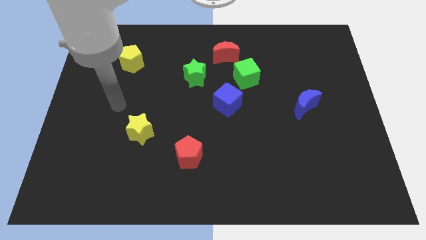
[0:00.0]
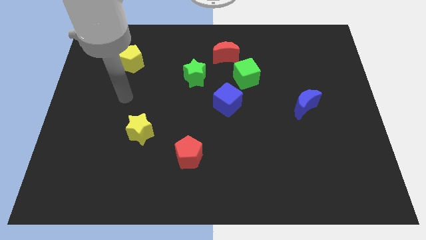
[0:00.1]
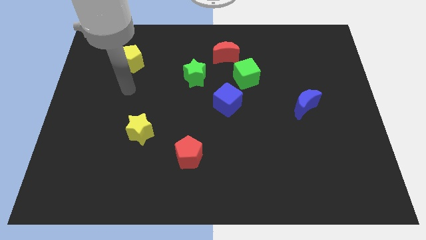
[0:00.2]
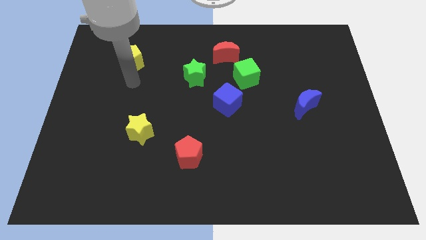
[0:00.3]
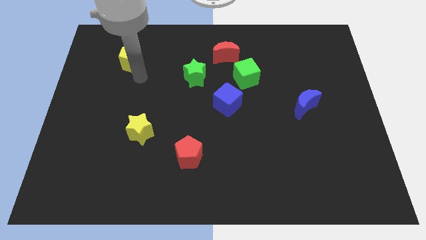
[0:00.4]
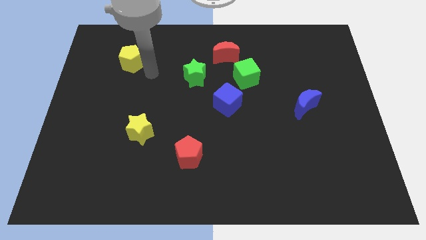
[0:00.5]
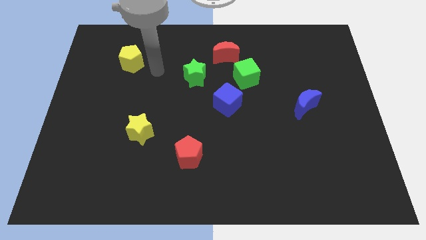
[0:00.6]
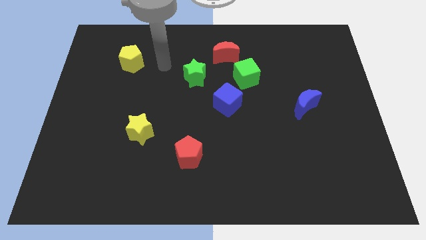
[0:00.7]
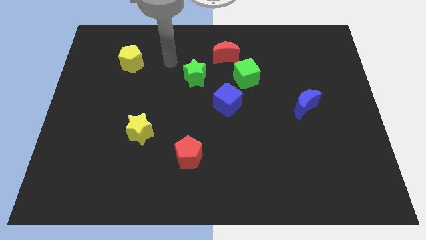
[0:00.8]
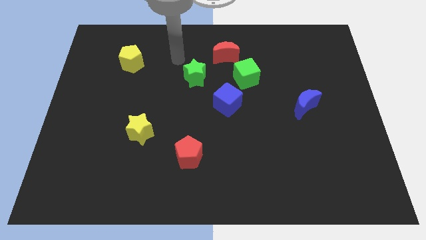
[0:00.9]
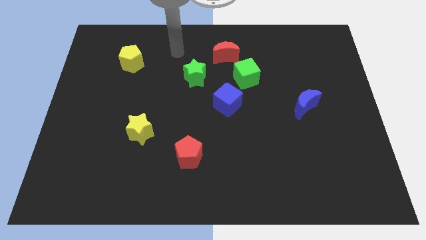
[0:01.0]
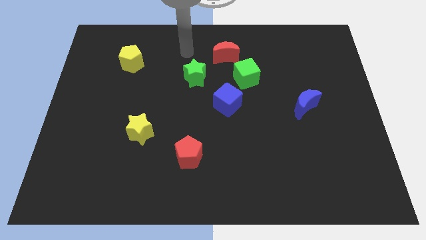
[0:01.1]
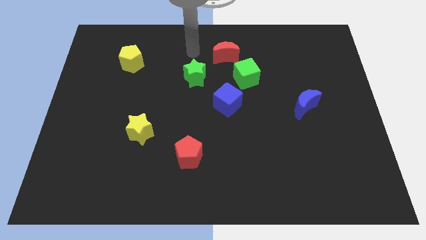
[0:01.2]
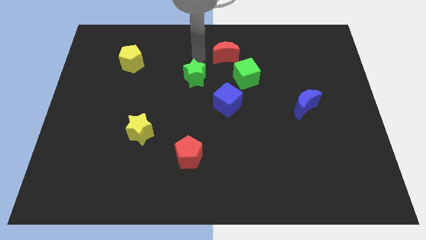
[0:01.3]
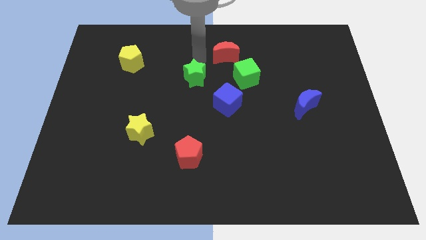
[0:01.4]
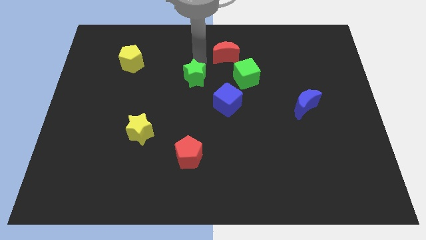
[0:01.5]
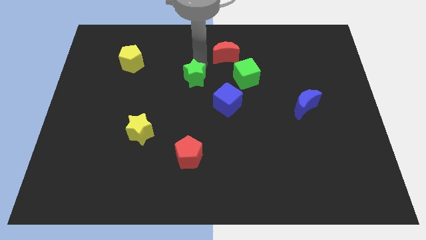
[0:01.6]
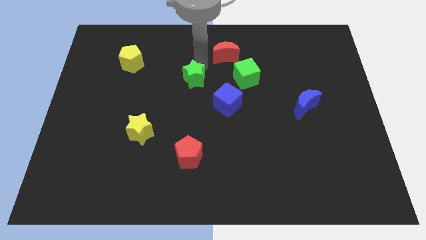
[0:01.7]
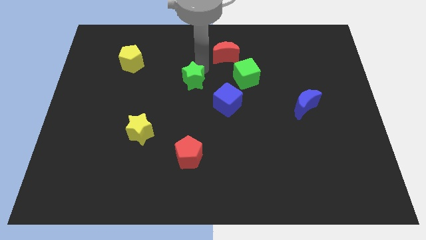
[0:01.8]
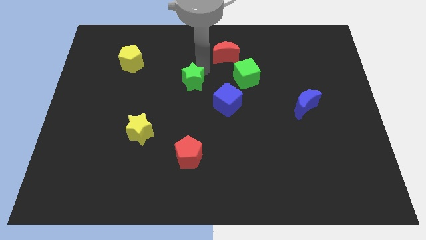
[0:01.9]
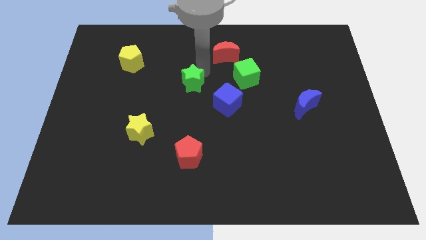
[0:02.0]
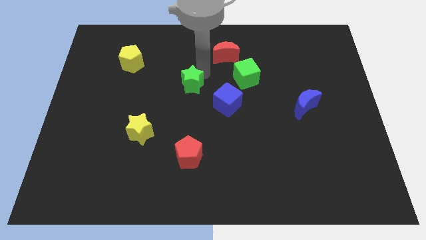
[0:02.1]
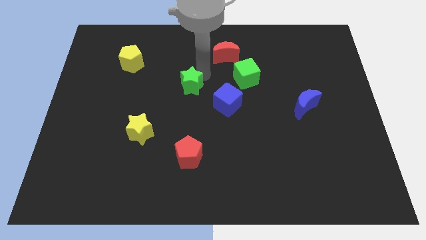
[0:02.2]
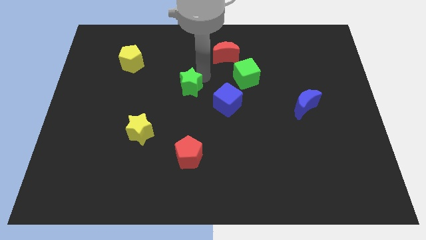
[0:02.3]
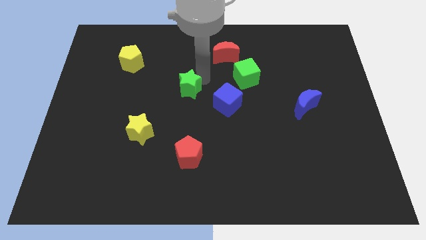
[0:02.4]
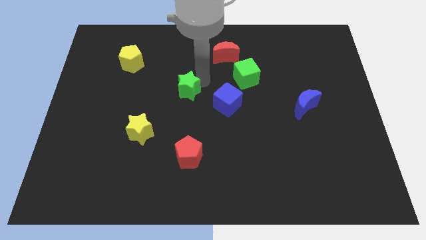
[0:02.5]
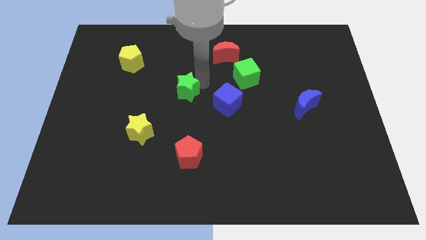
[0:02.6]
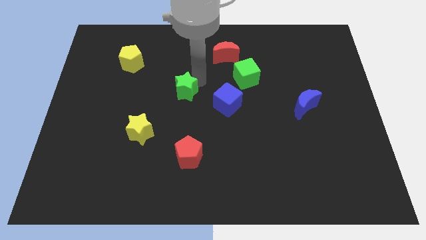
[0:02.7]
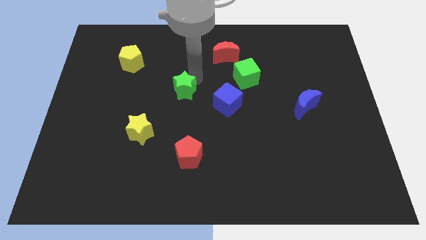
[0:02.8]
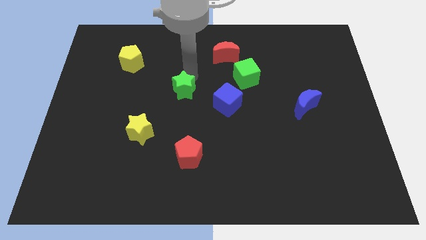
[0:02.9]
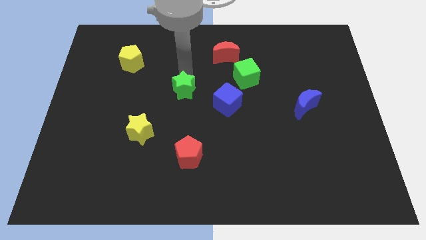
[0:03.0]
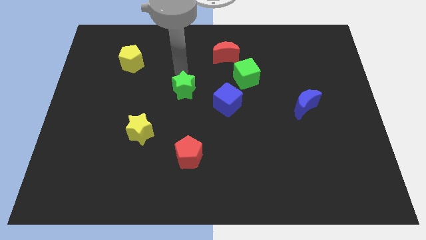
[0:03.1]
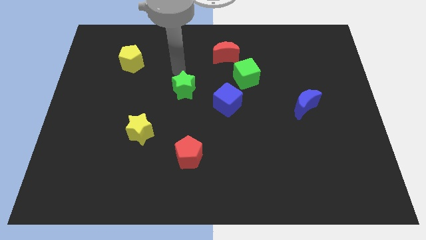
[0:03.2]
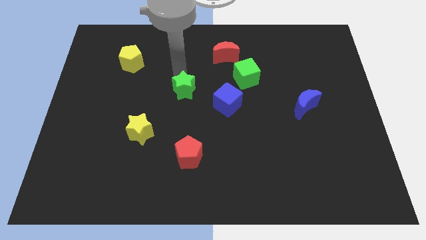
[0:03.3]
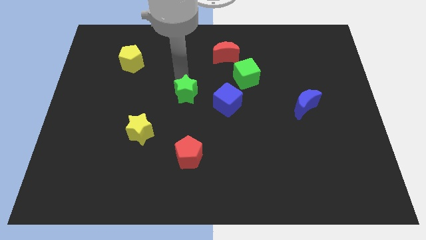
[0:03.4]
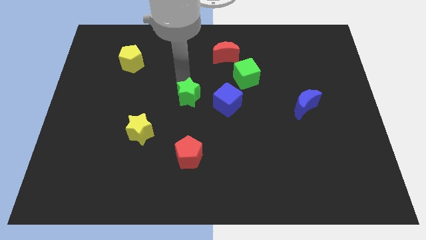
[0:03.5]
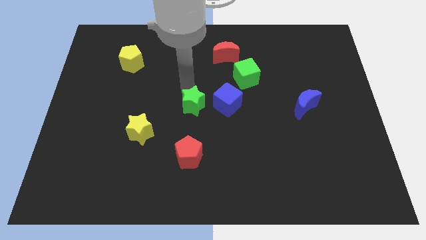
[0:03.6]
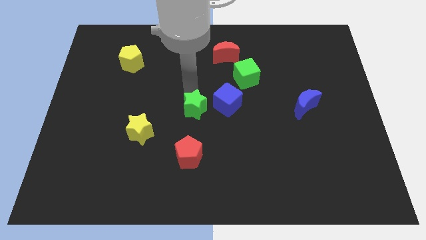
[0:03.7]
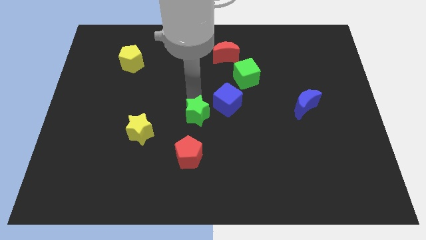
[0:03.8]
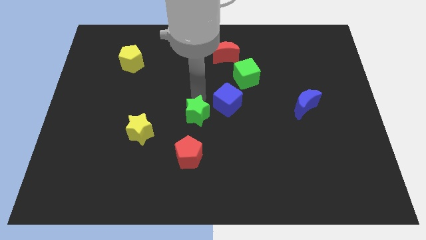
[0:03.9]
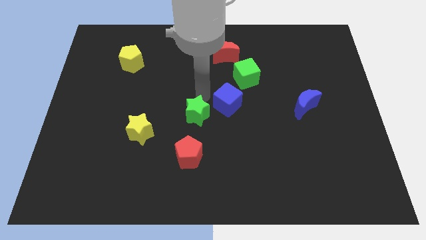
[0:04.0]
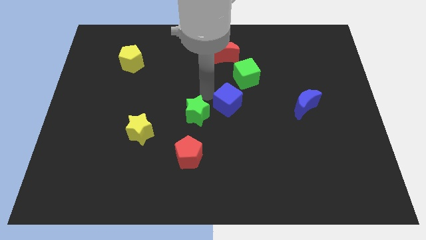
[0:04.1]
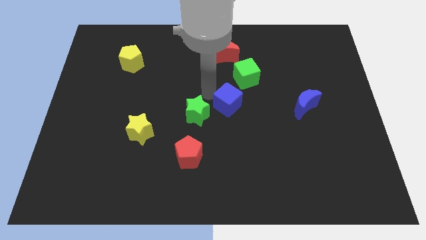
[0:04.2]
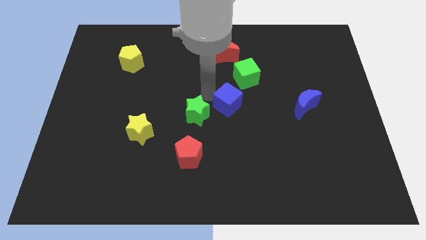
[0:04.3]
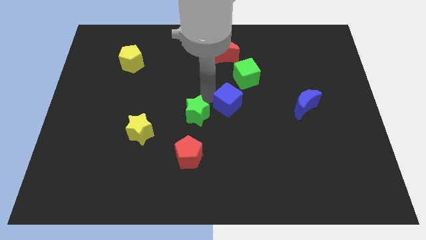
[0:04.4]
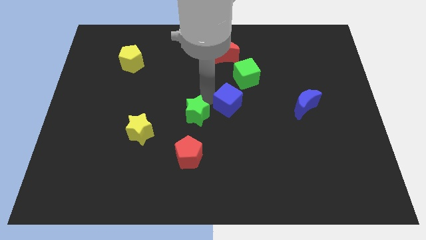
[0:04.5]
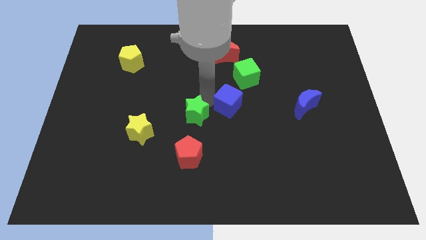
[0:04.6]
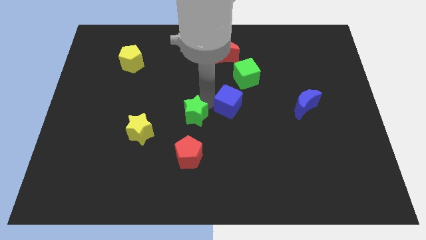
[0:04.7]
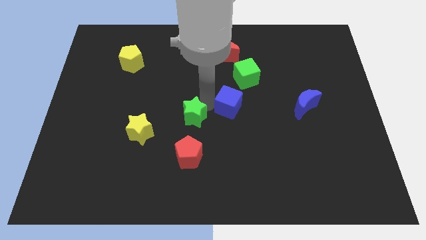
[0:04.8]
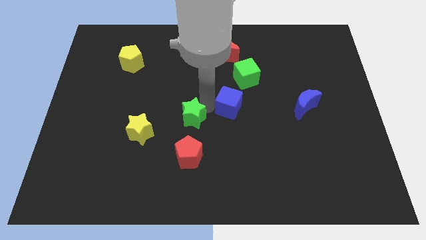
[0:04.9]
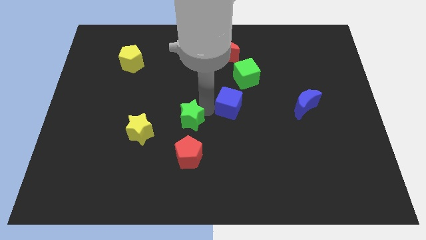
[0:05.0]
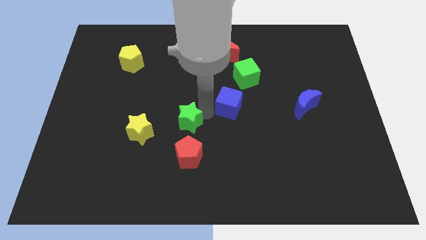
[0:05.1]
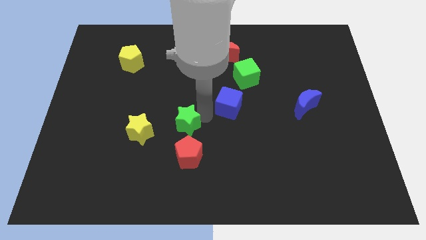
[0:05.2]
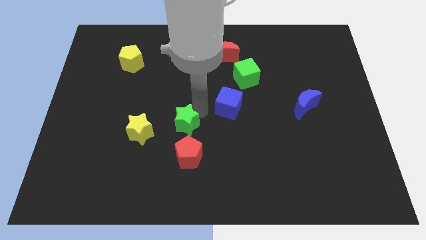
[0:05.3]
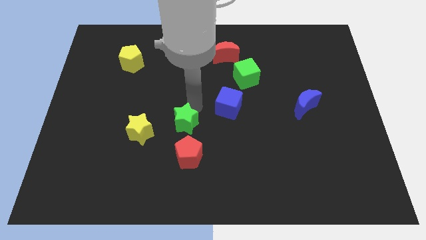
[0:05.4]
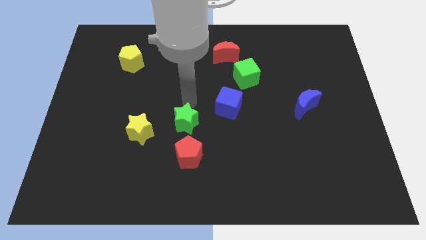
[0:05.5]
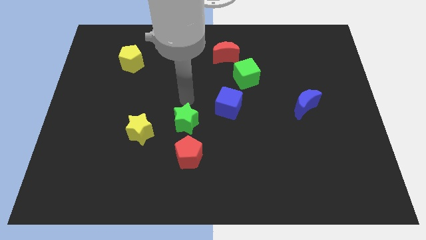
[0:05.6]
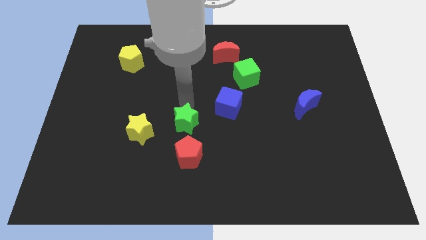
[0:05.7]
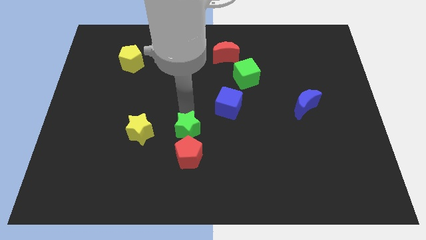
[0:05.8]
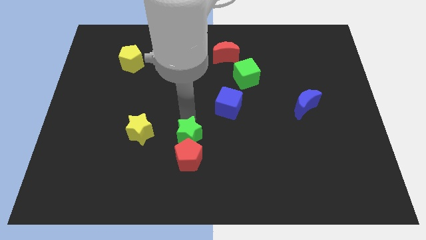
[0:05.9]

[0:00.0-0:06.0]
slide the green star to the red pentagon

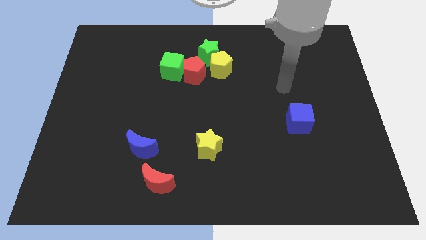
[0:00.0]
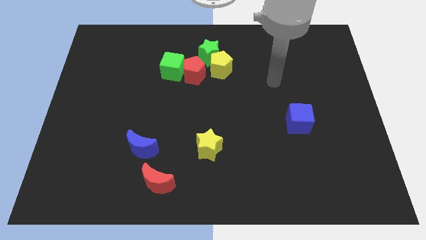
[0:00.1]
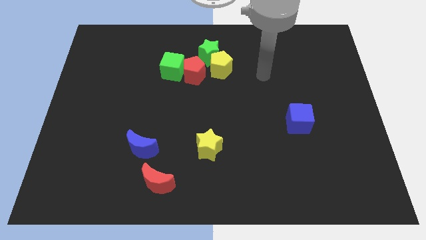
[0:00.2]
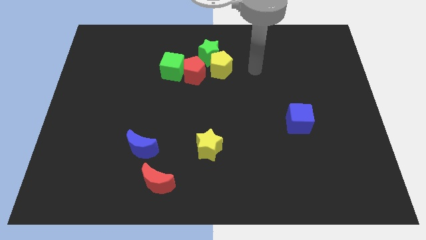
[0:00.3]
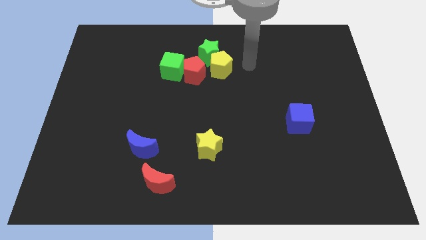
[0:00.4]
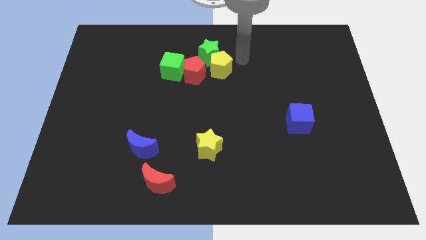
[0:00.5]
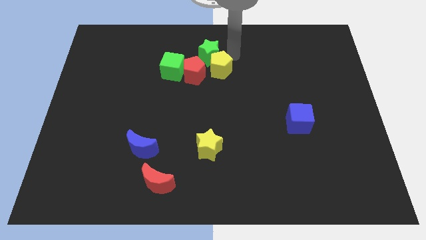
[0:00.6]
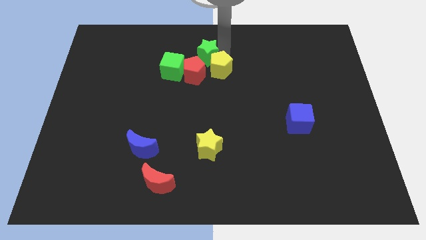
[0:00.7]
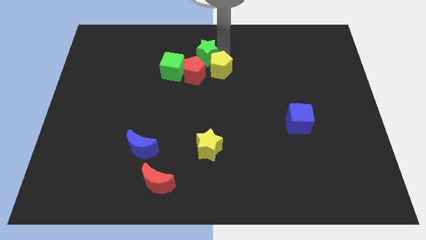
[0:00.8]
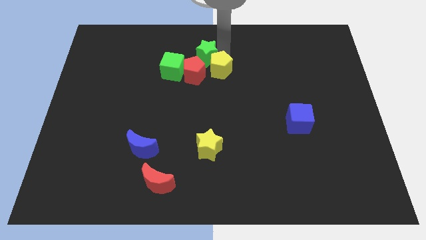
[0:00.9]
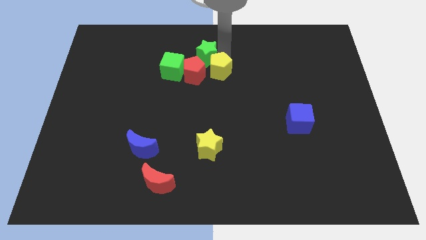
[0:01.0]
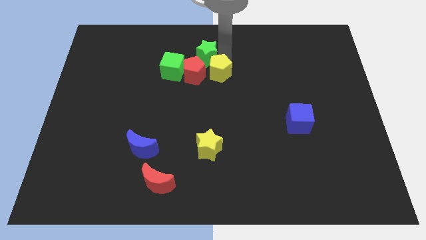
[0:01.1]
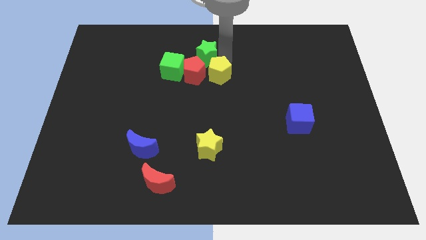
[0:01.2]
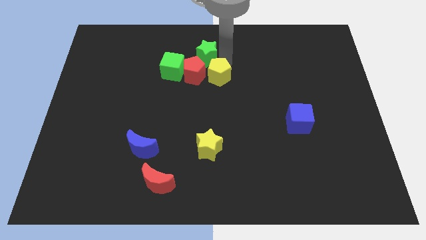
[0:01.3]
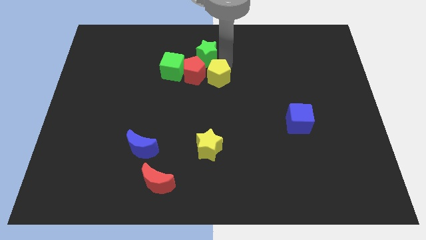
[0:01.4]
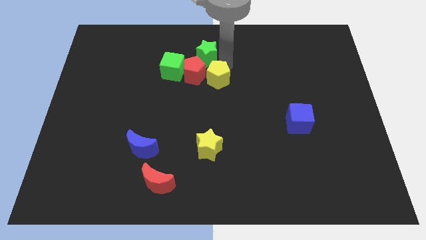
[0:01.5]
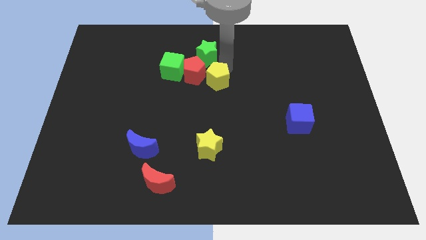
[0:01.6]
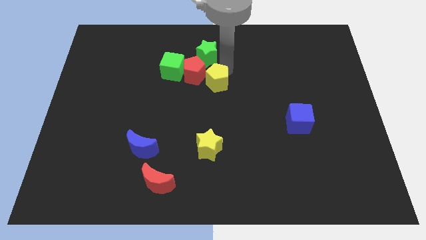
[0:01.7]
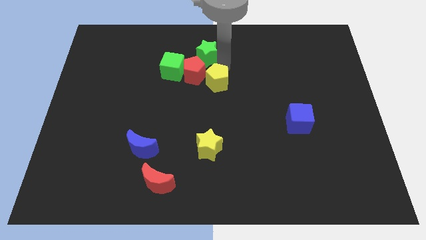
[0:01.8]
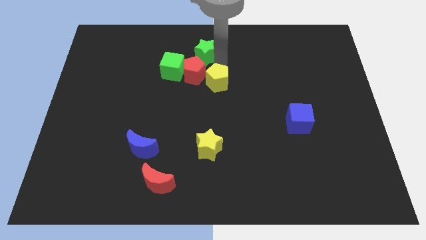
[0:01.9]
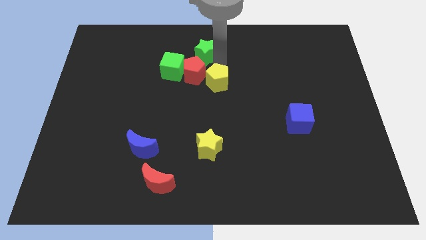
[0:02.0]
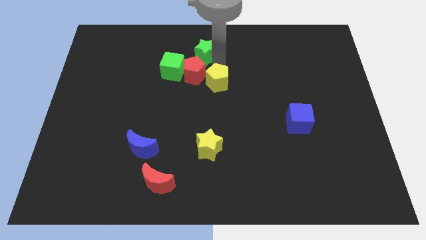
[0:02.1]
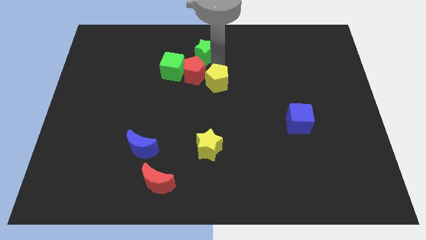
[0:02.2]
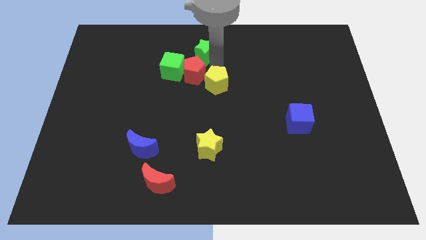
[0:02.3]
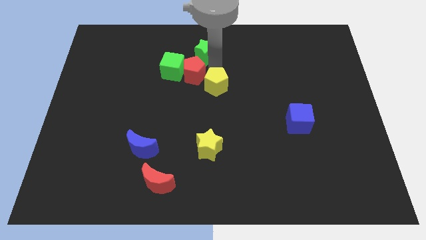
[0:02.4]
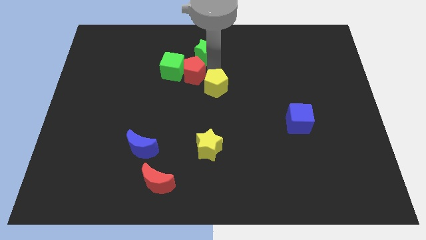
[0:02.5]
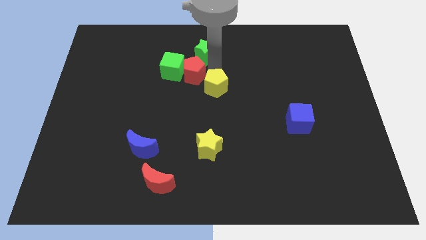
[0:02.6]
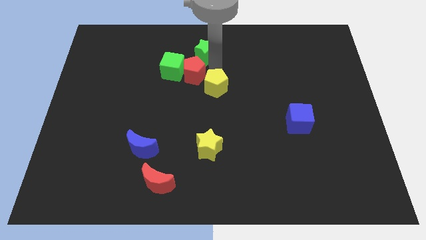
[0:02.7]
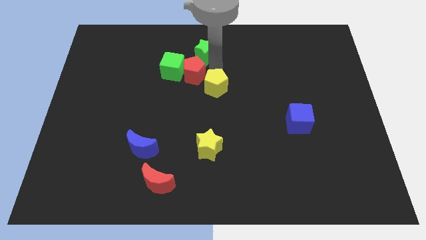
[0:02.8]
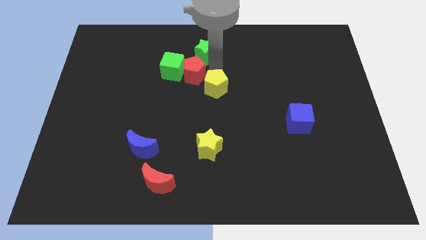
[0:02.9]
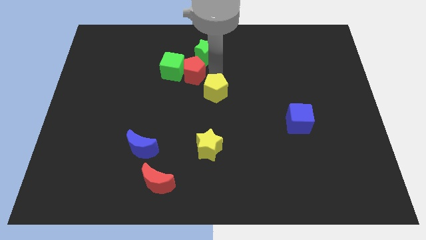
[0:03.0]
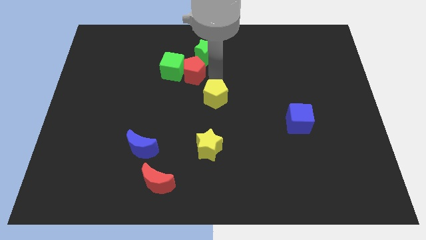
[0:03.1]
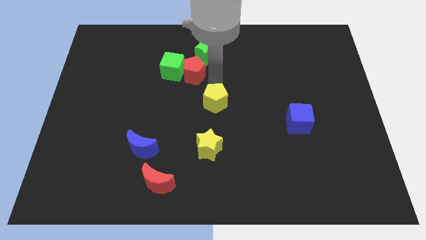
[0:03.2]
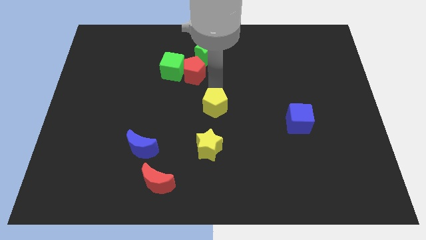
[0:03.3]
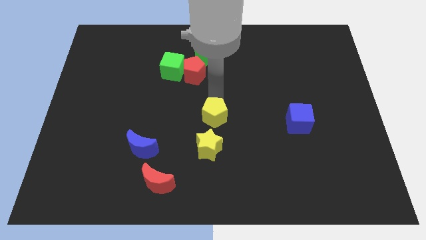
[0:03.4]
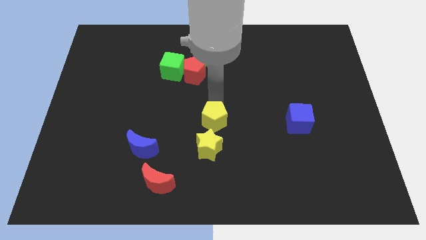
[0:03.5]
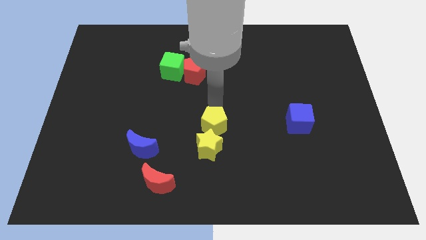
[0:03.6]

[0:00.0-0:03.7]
slide the yellow pentagon towards the yellow star
